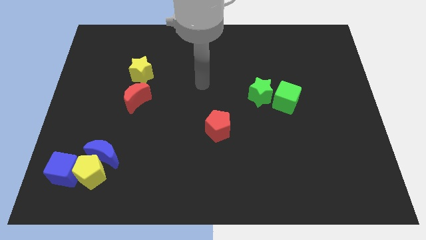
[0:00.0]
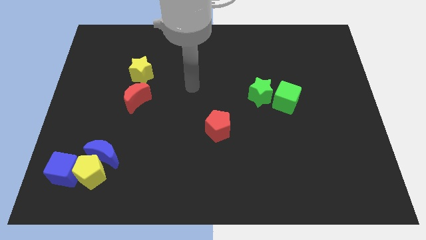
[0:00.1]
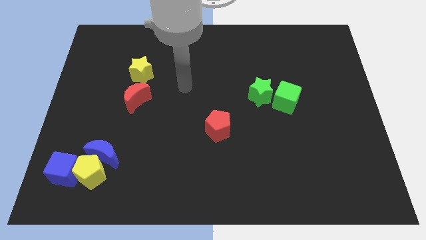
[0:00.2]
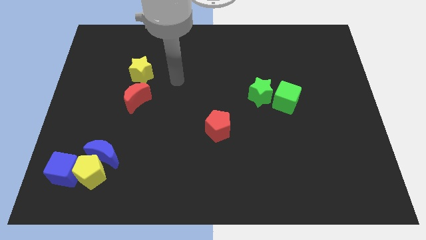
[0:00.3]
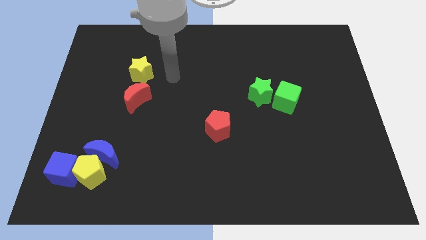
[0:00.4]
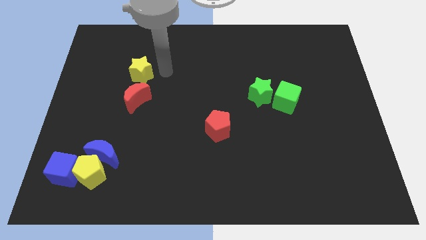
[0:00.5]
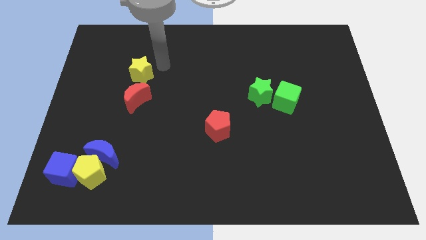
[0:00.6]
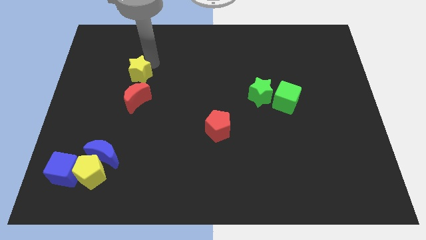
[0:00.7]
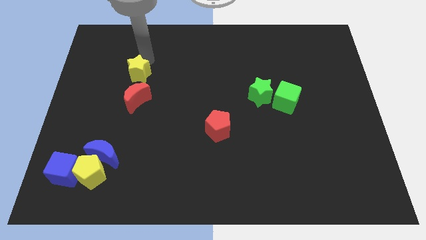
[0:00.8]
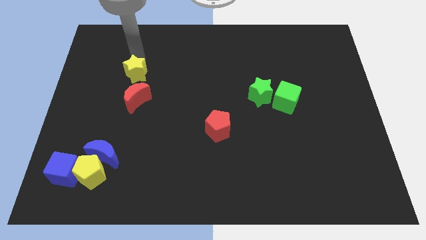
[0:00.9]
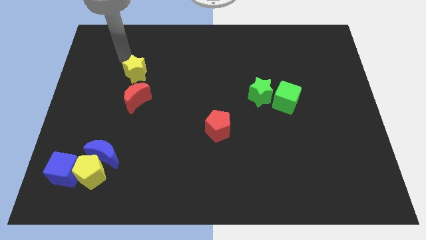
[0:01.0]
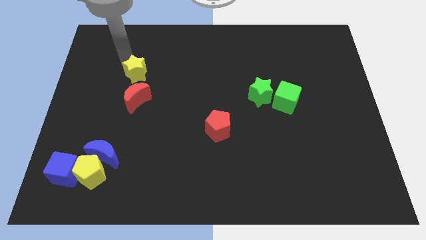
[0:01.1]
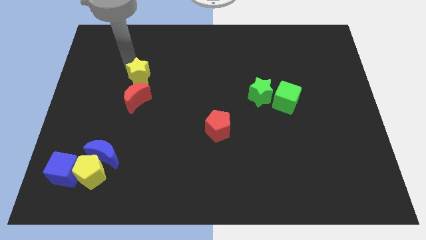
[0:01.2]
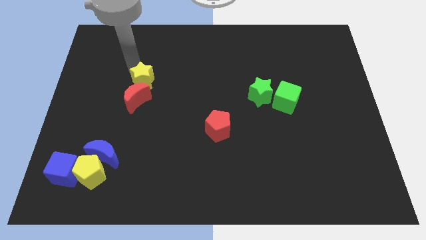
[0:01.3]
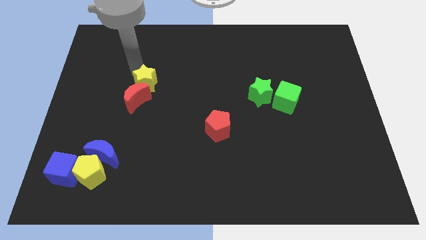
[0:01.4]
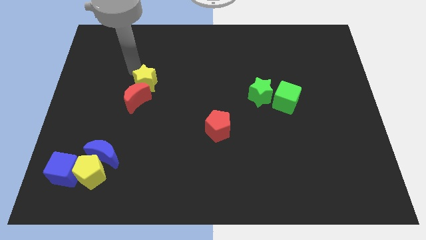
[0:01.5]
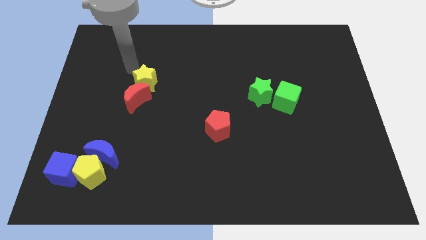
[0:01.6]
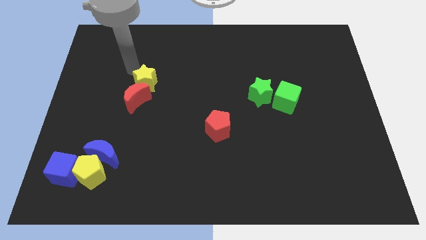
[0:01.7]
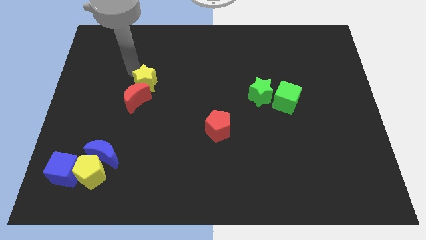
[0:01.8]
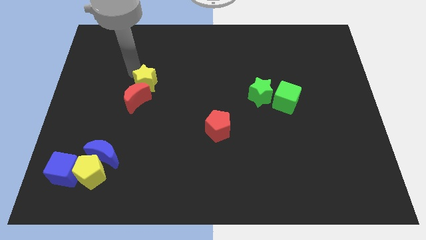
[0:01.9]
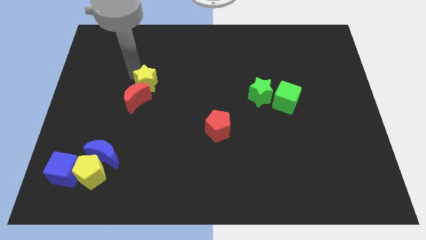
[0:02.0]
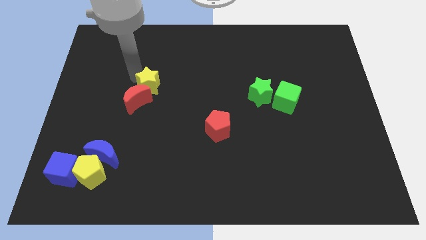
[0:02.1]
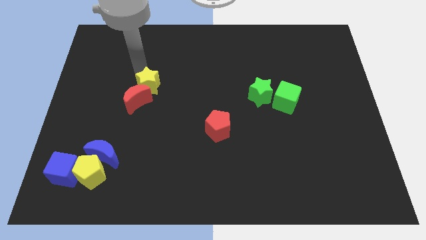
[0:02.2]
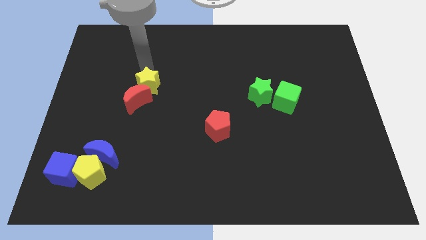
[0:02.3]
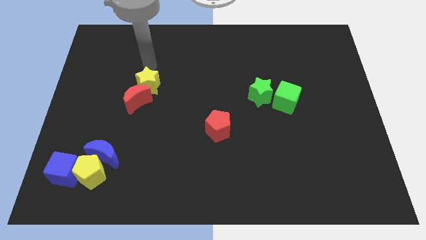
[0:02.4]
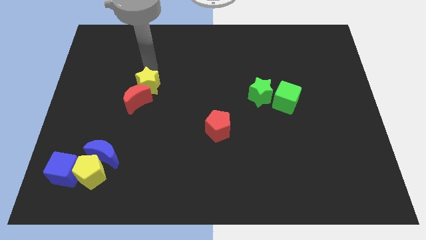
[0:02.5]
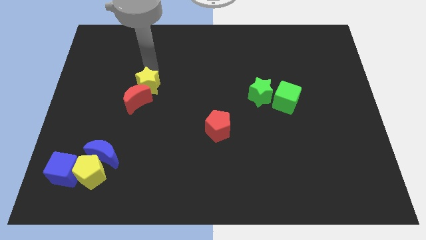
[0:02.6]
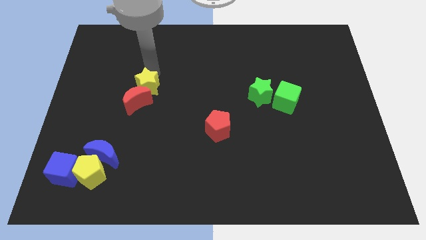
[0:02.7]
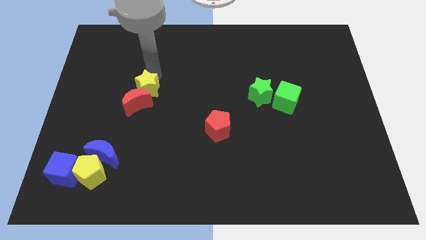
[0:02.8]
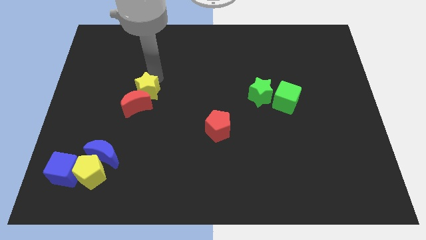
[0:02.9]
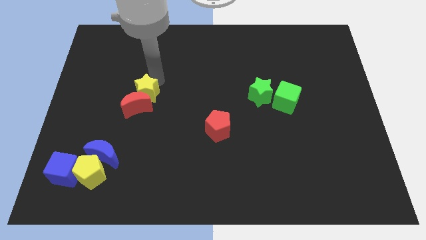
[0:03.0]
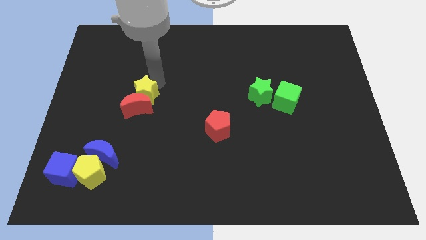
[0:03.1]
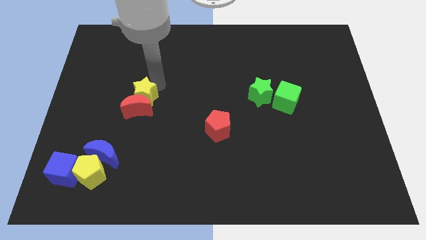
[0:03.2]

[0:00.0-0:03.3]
move the yellow star a bit down

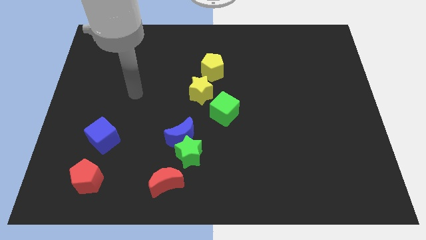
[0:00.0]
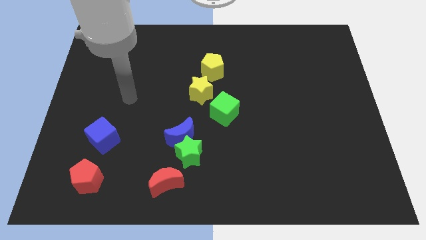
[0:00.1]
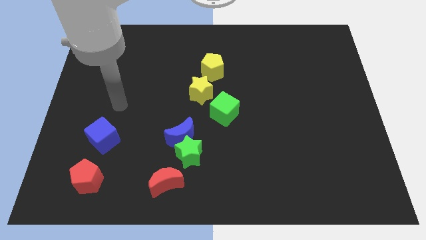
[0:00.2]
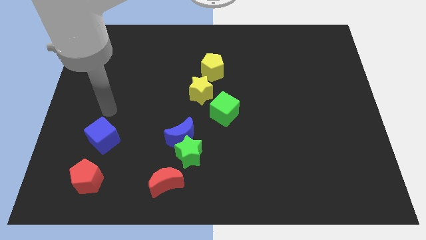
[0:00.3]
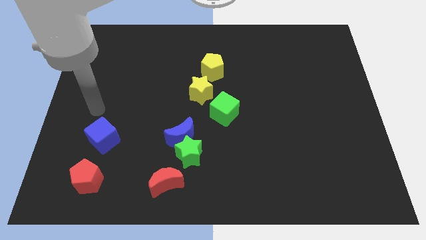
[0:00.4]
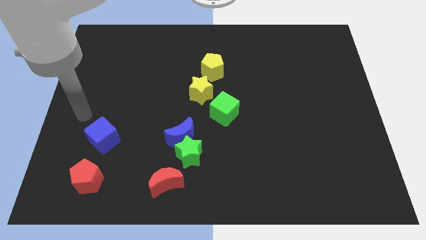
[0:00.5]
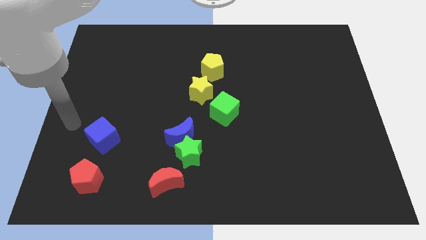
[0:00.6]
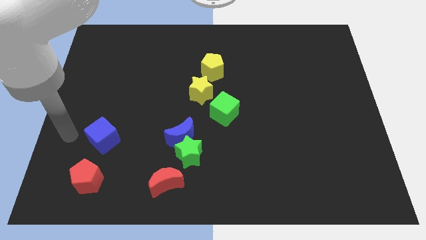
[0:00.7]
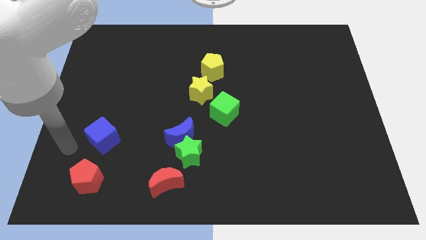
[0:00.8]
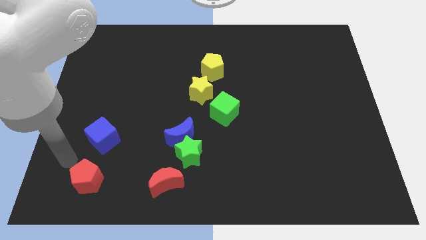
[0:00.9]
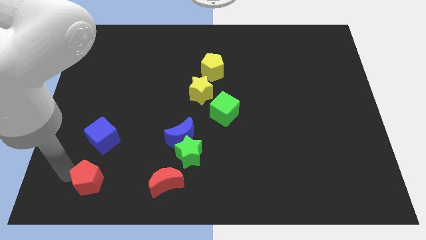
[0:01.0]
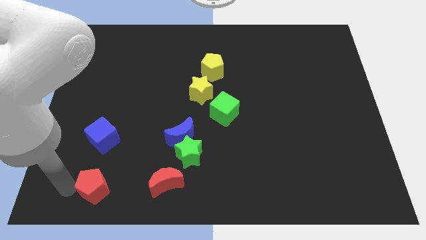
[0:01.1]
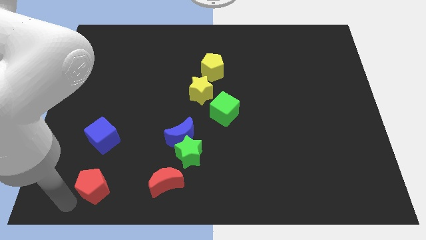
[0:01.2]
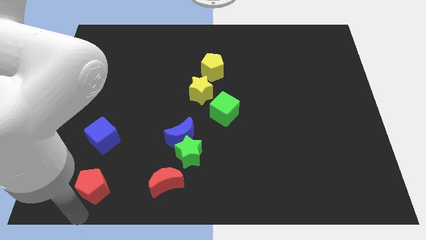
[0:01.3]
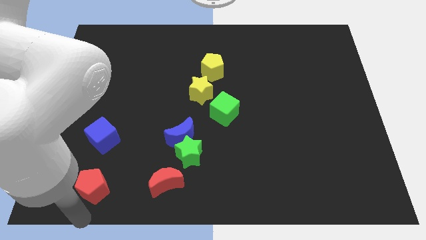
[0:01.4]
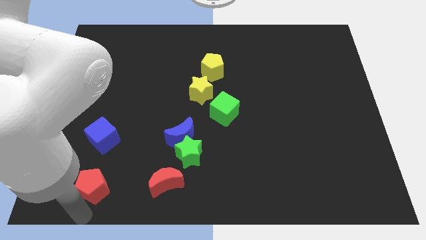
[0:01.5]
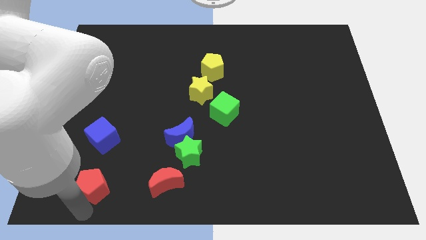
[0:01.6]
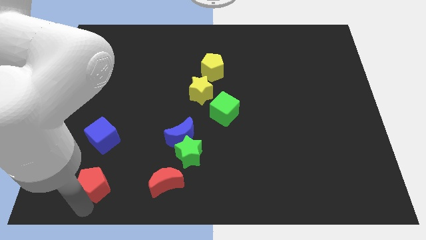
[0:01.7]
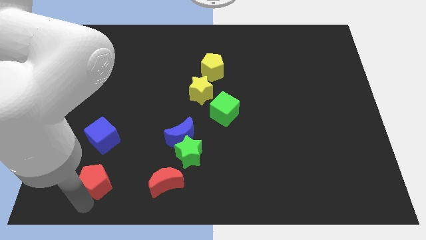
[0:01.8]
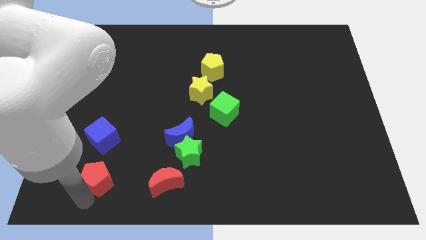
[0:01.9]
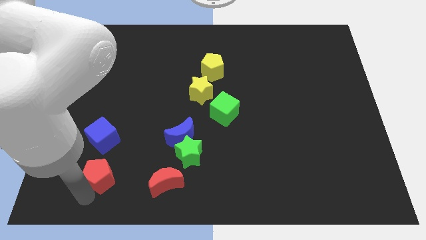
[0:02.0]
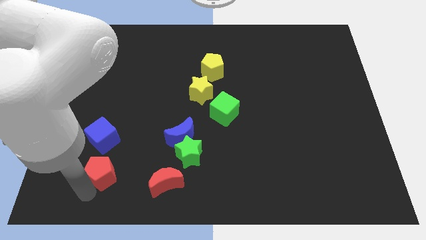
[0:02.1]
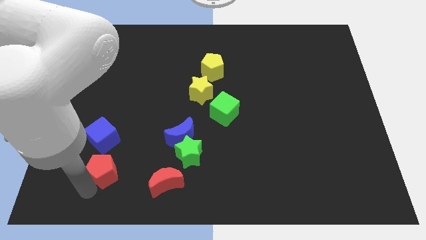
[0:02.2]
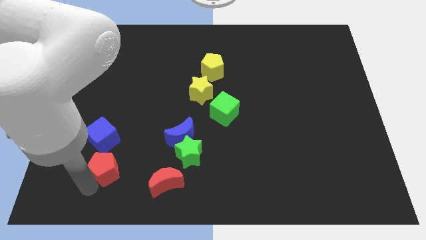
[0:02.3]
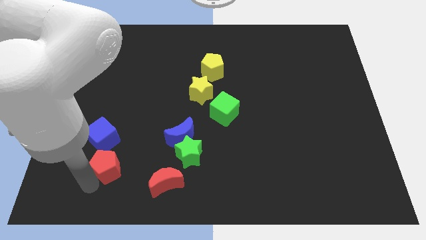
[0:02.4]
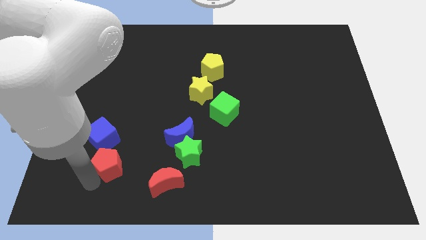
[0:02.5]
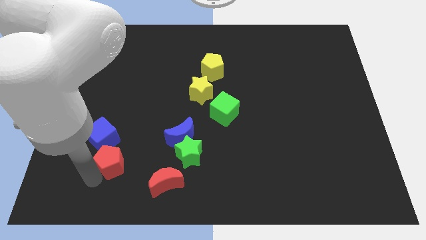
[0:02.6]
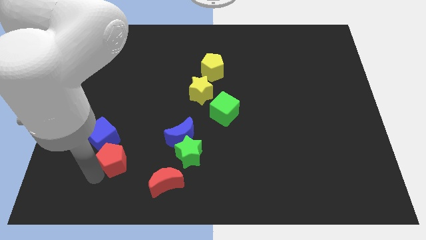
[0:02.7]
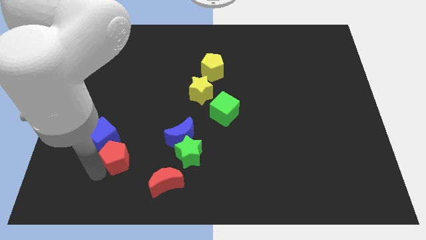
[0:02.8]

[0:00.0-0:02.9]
slide the red pentagon a bit upwards and to the right diagonally

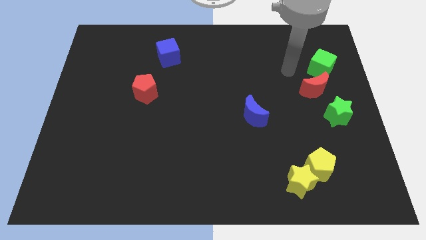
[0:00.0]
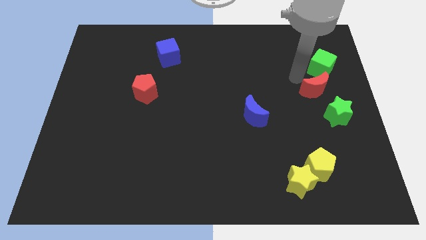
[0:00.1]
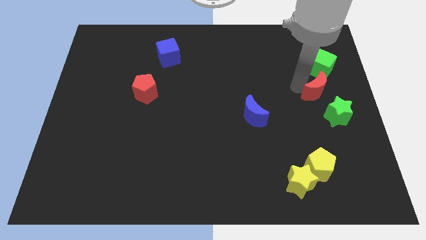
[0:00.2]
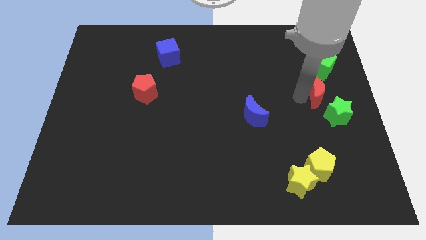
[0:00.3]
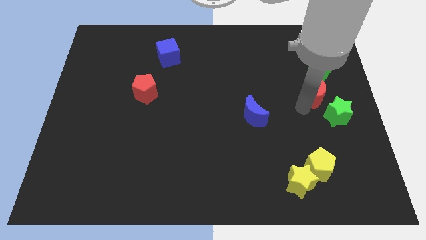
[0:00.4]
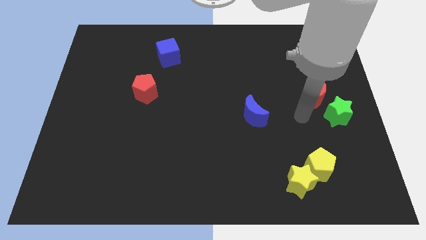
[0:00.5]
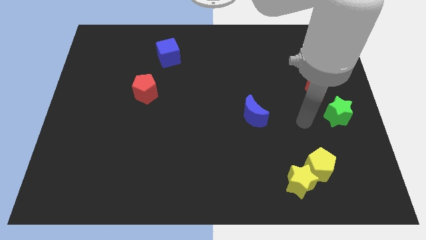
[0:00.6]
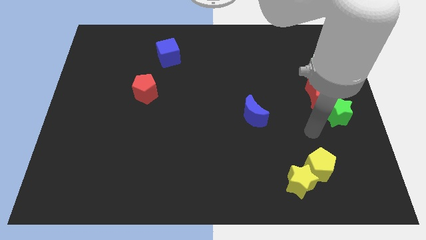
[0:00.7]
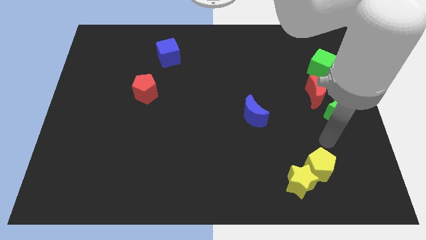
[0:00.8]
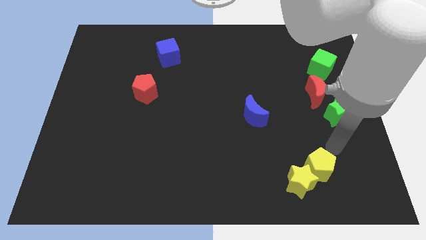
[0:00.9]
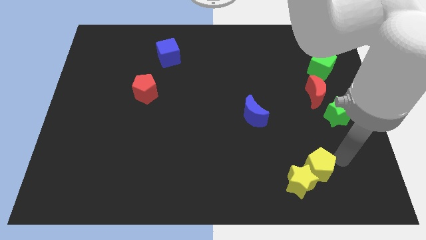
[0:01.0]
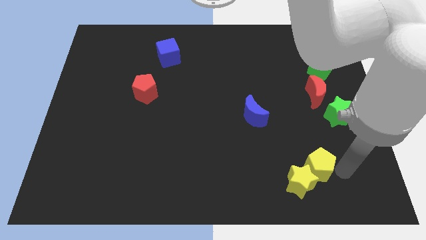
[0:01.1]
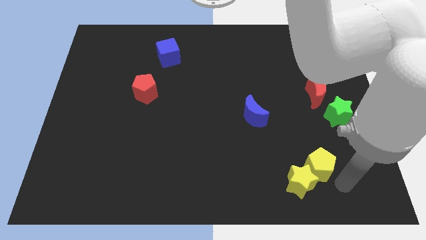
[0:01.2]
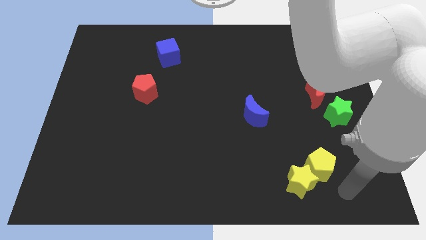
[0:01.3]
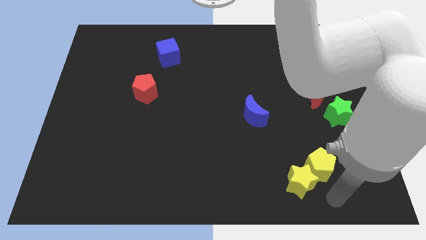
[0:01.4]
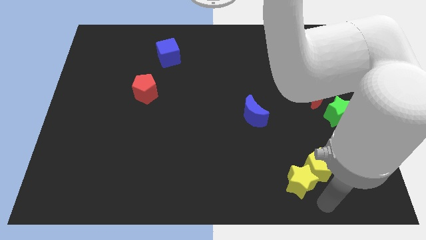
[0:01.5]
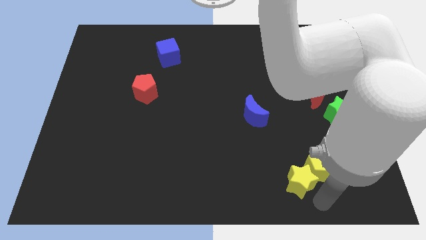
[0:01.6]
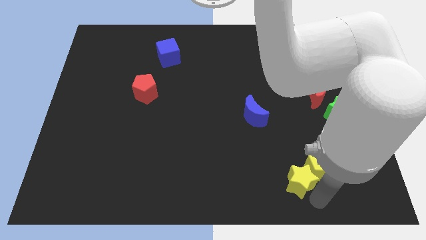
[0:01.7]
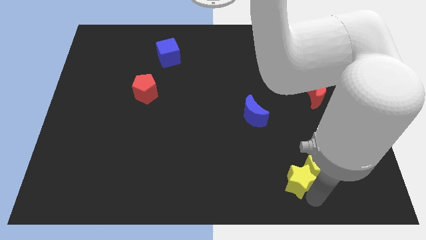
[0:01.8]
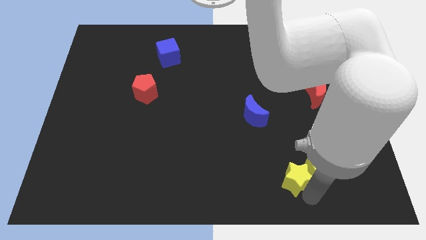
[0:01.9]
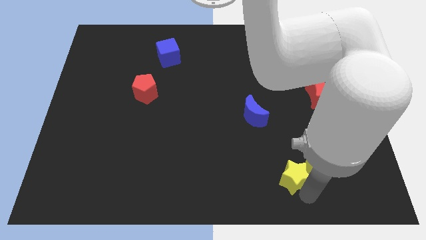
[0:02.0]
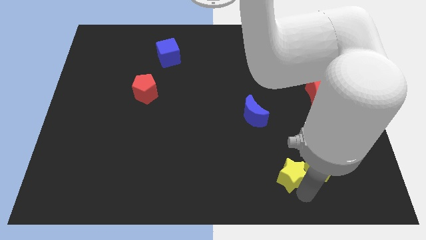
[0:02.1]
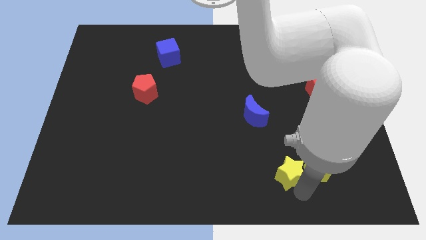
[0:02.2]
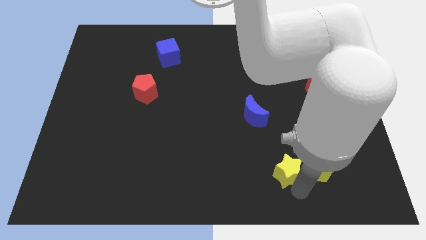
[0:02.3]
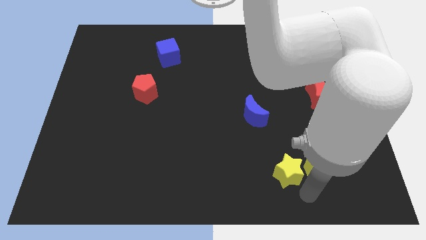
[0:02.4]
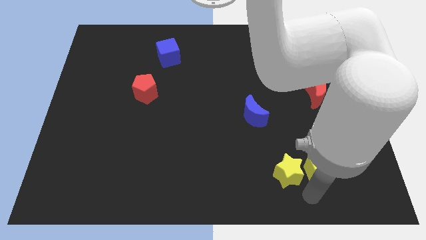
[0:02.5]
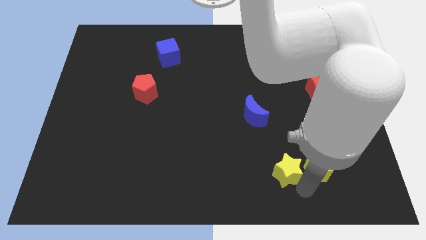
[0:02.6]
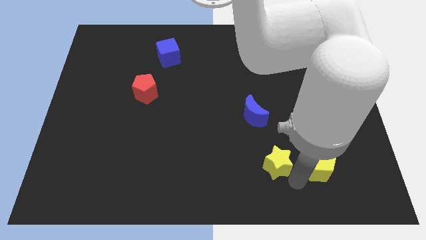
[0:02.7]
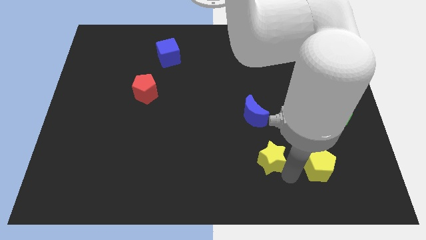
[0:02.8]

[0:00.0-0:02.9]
slide the yellow star diagonally upwards and left somewhat
